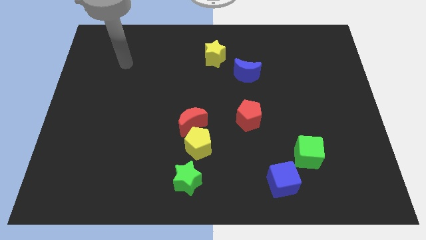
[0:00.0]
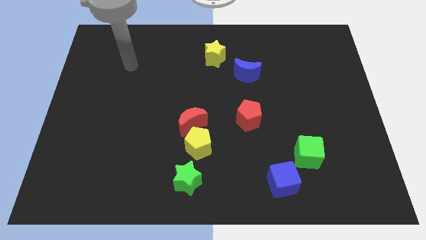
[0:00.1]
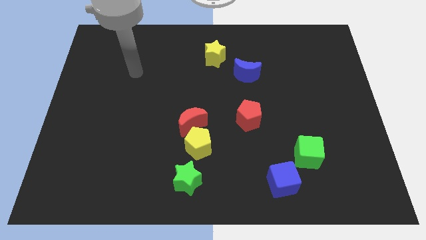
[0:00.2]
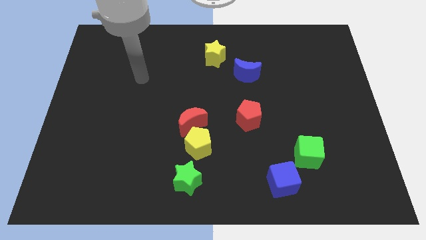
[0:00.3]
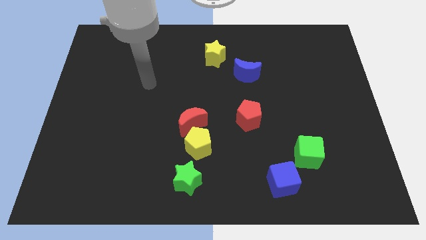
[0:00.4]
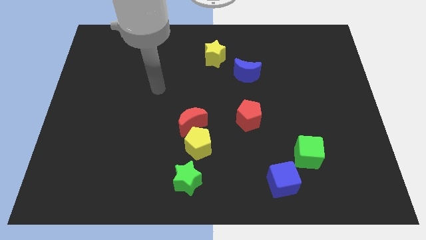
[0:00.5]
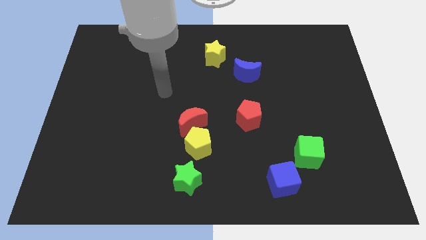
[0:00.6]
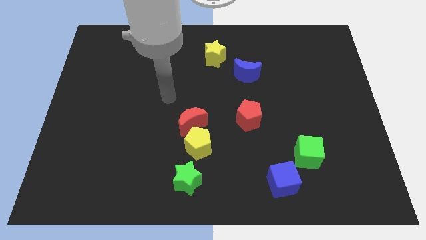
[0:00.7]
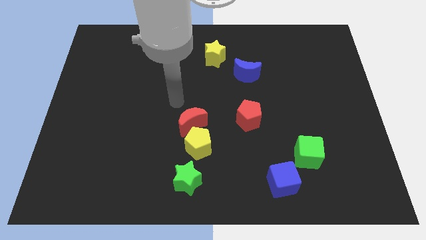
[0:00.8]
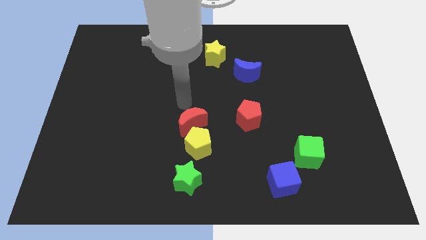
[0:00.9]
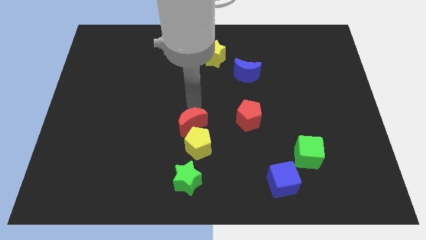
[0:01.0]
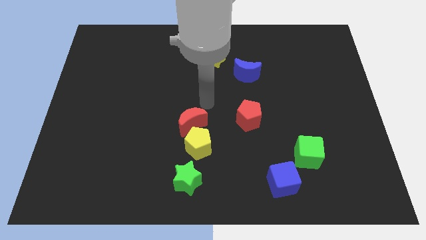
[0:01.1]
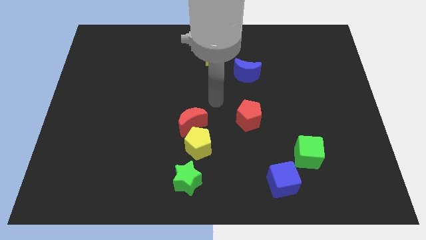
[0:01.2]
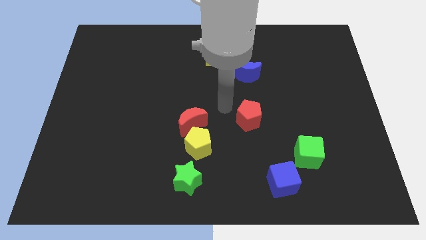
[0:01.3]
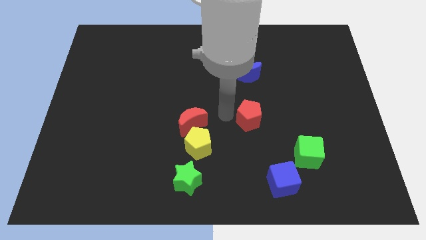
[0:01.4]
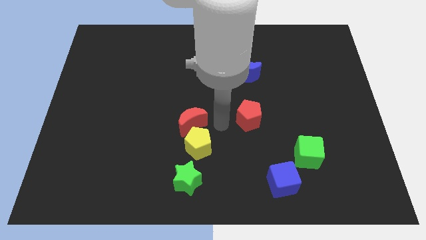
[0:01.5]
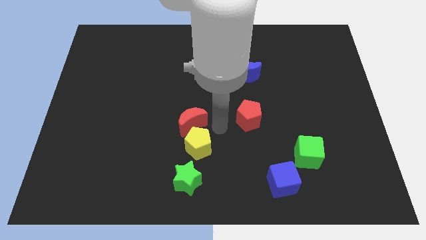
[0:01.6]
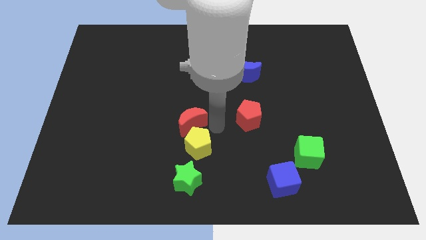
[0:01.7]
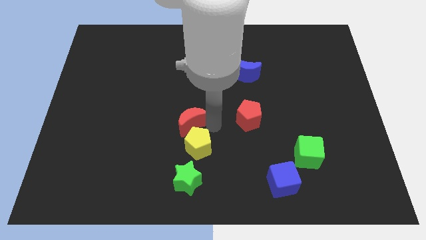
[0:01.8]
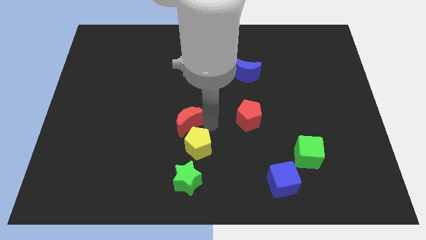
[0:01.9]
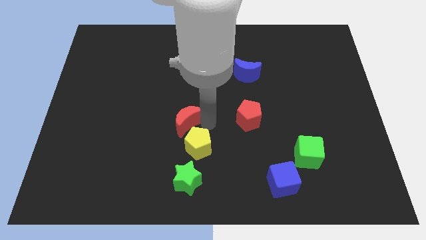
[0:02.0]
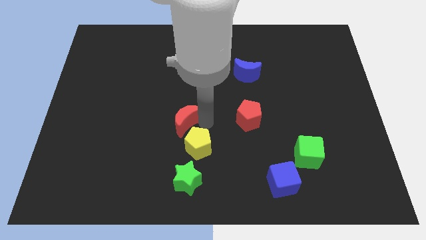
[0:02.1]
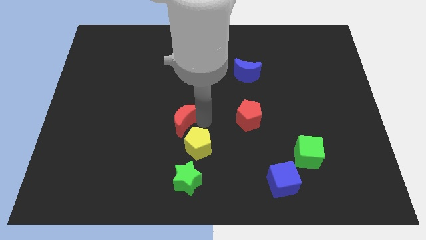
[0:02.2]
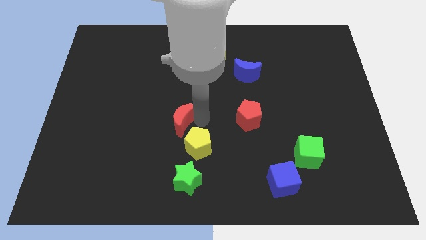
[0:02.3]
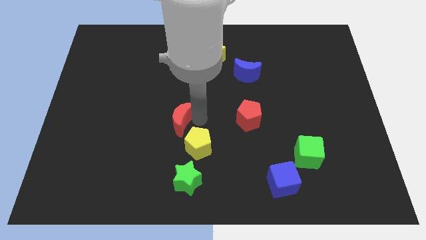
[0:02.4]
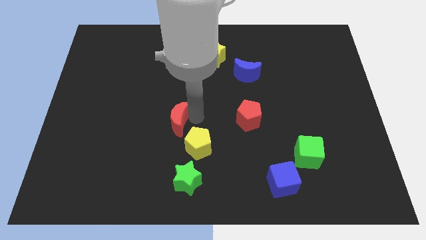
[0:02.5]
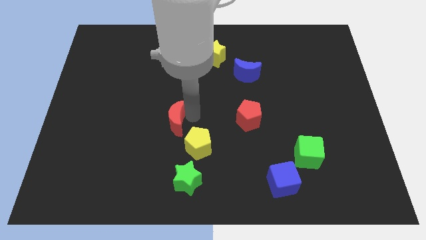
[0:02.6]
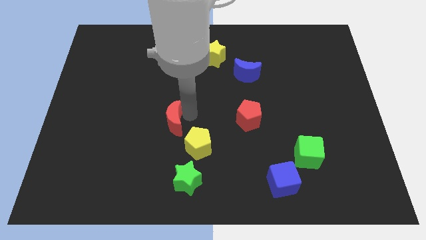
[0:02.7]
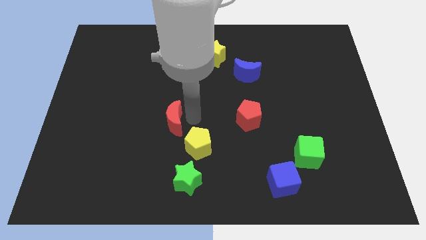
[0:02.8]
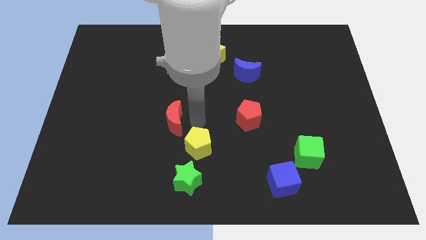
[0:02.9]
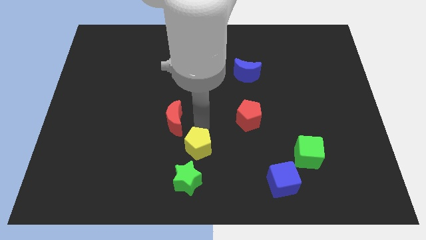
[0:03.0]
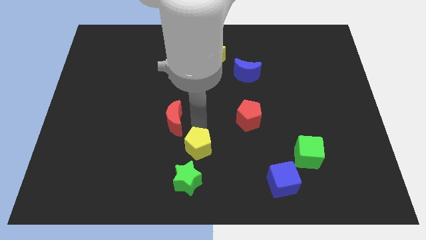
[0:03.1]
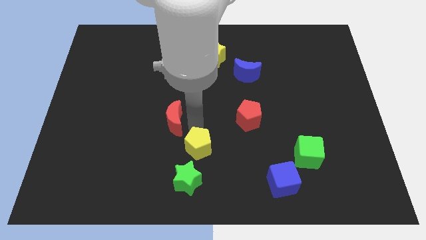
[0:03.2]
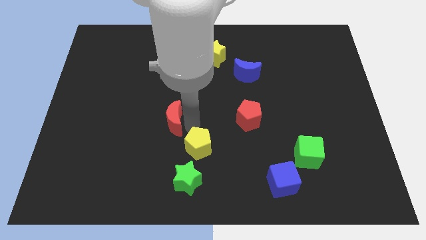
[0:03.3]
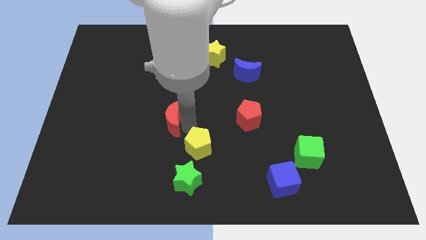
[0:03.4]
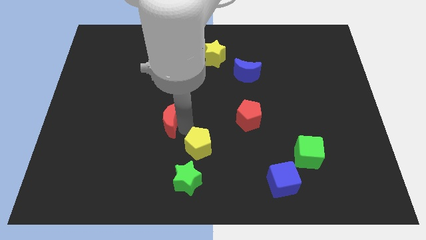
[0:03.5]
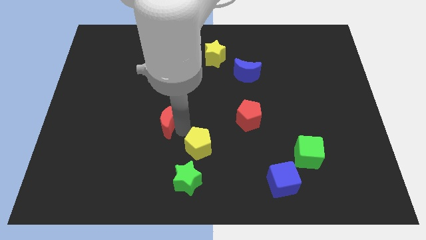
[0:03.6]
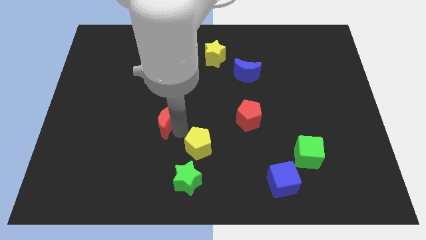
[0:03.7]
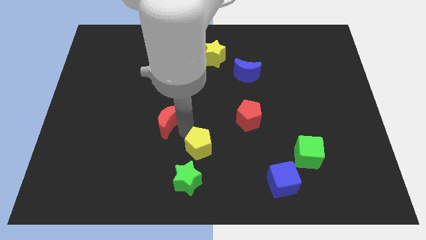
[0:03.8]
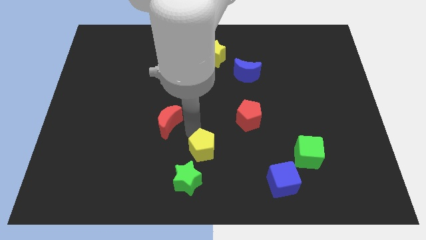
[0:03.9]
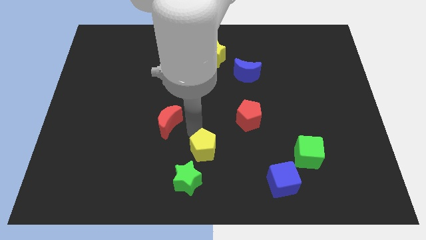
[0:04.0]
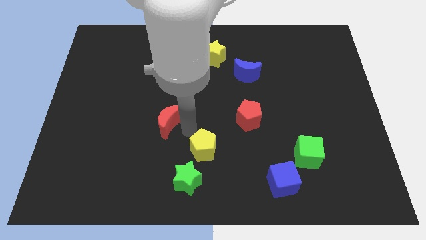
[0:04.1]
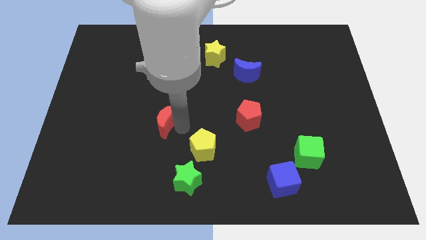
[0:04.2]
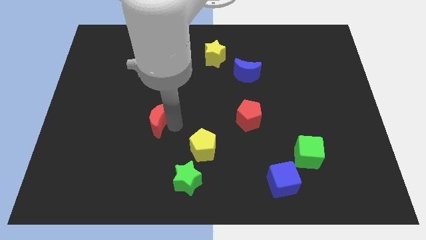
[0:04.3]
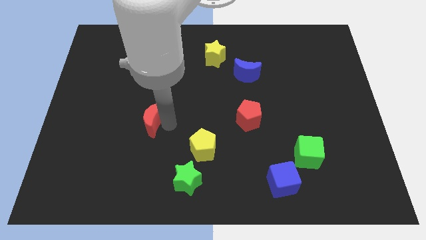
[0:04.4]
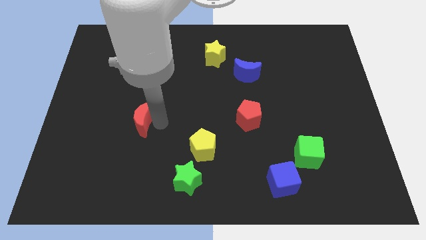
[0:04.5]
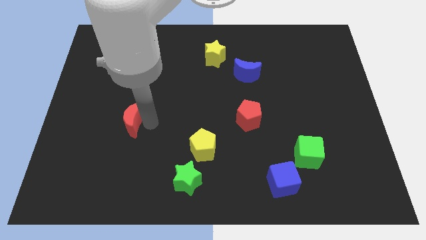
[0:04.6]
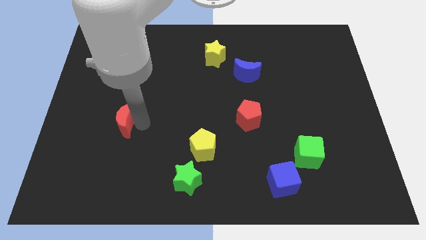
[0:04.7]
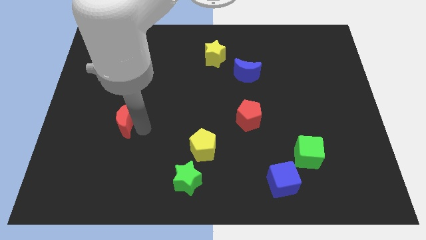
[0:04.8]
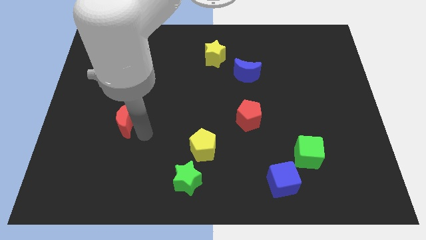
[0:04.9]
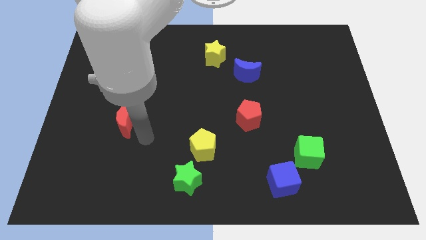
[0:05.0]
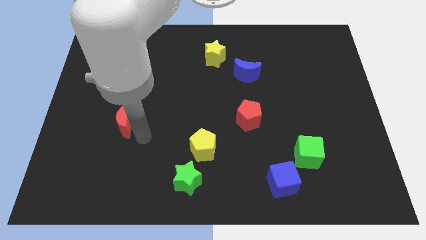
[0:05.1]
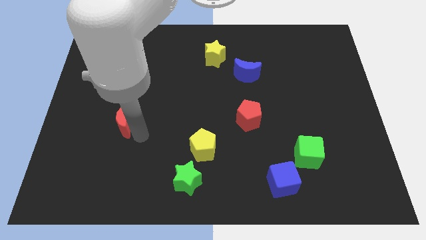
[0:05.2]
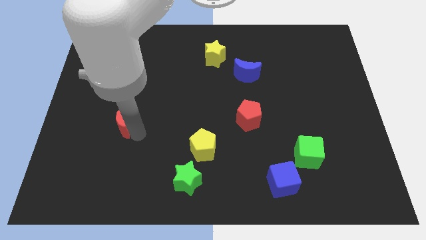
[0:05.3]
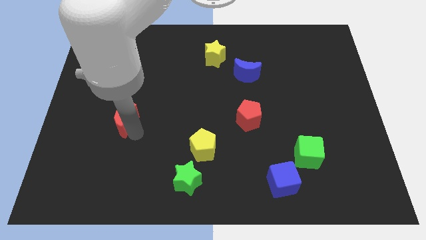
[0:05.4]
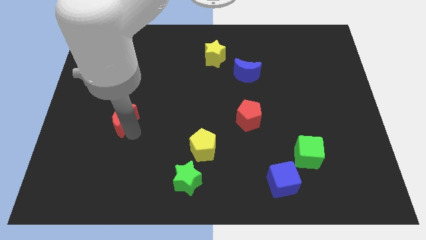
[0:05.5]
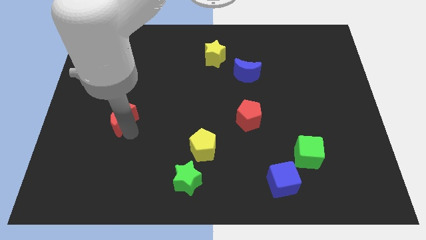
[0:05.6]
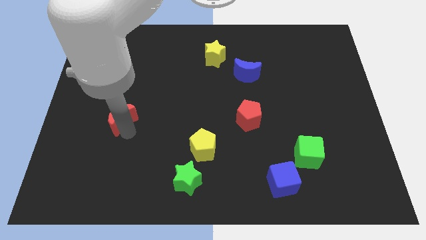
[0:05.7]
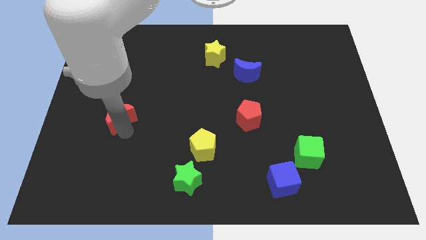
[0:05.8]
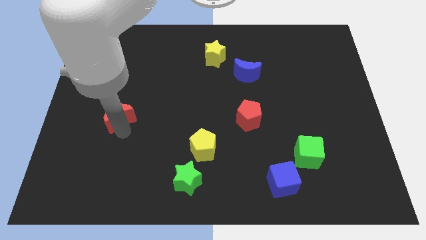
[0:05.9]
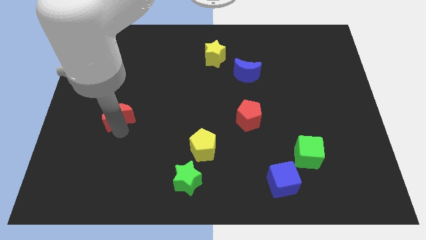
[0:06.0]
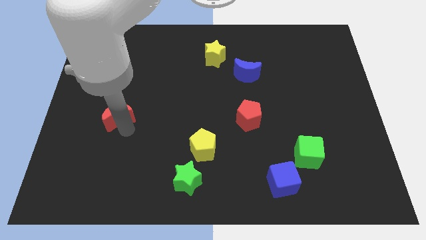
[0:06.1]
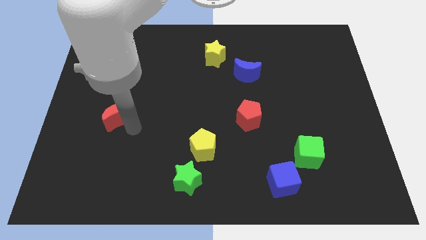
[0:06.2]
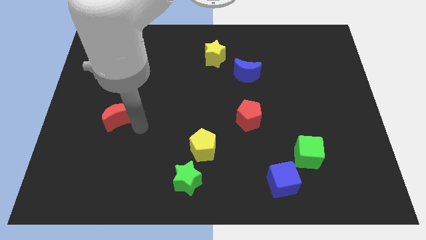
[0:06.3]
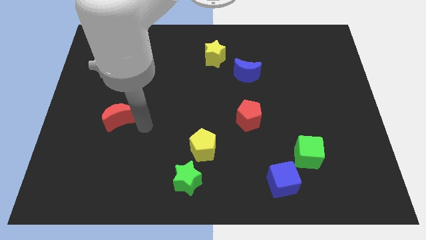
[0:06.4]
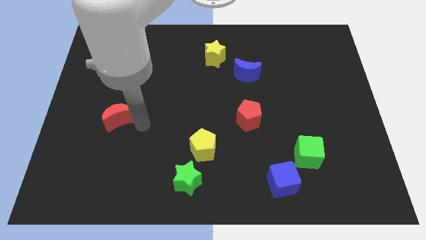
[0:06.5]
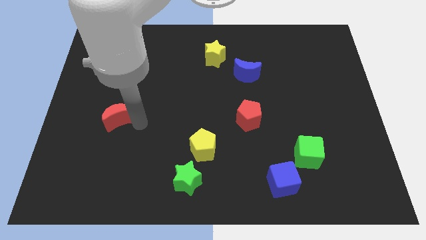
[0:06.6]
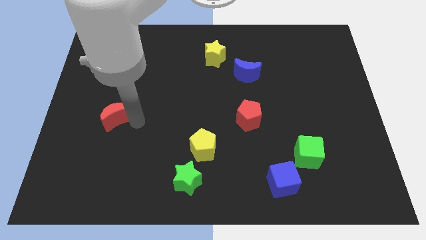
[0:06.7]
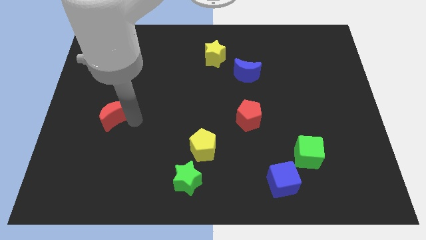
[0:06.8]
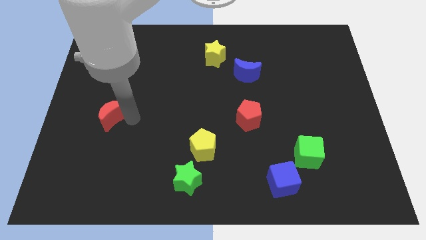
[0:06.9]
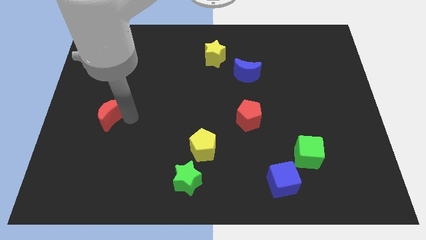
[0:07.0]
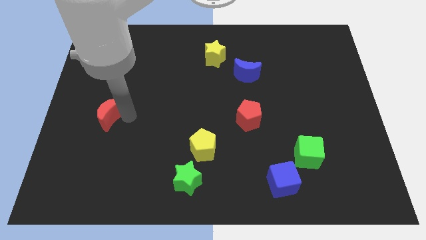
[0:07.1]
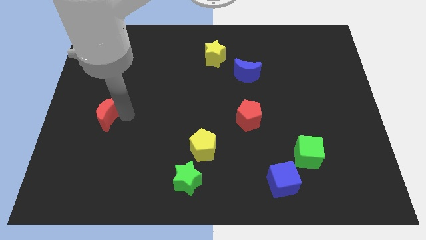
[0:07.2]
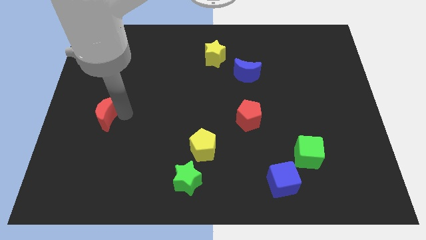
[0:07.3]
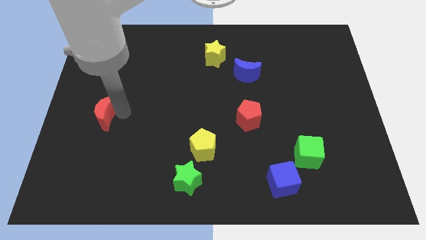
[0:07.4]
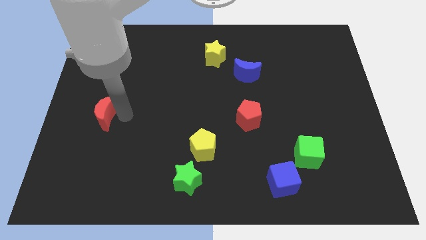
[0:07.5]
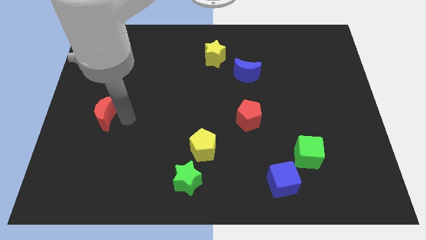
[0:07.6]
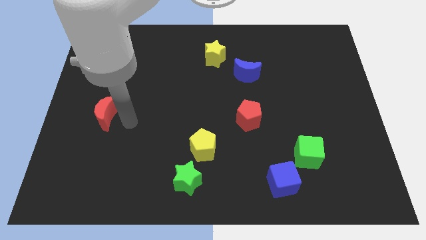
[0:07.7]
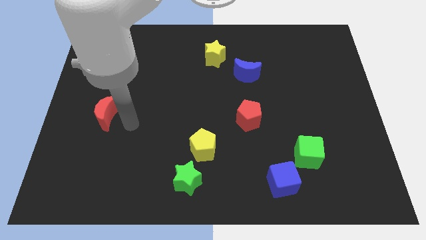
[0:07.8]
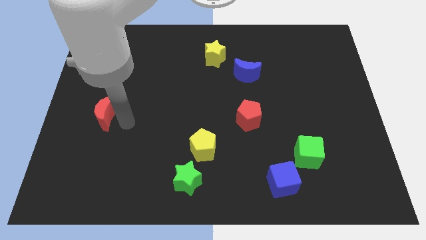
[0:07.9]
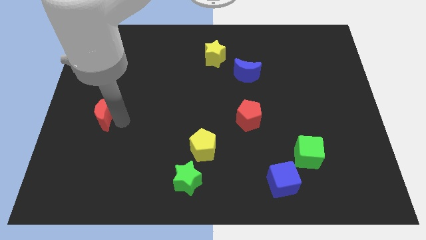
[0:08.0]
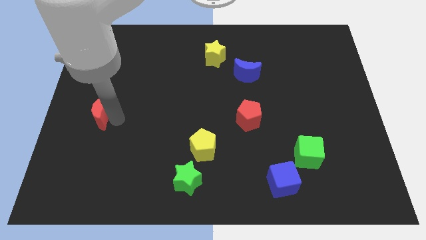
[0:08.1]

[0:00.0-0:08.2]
slide the red moon to the left side
